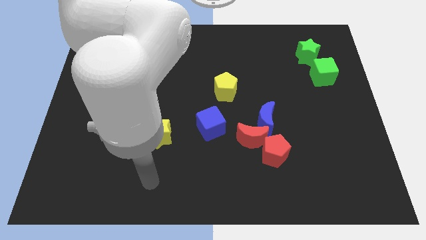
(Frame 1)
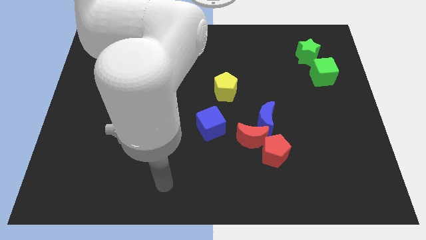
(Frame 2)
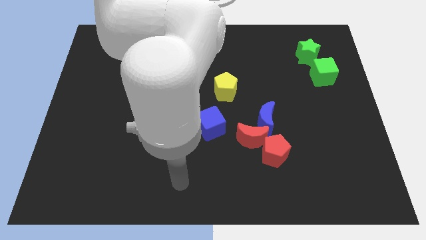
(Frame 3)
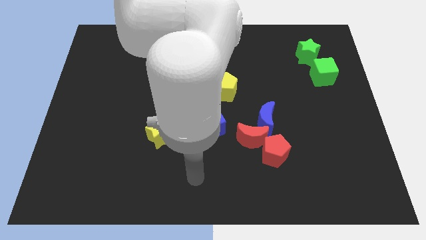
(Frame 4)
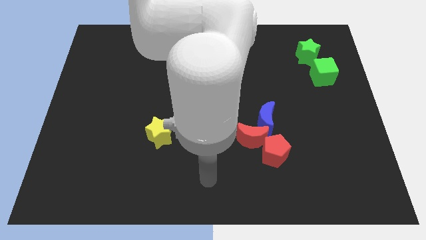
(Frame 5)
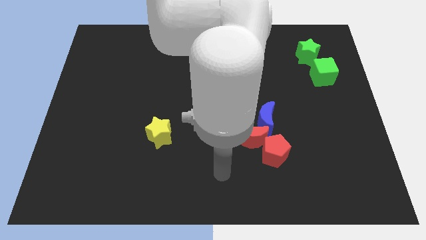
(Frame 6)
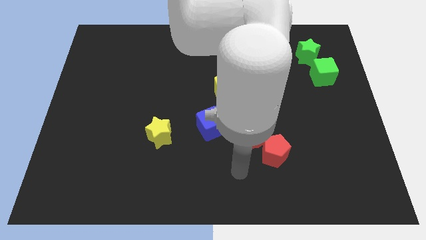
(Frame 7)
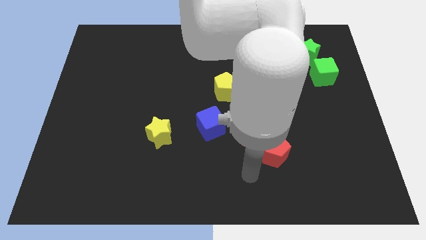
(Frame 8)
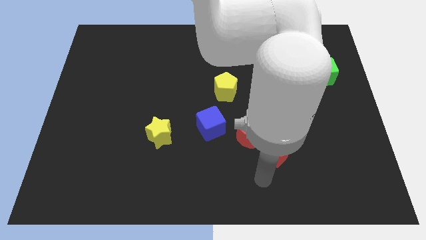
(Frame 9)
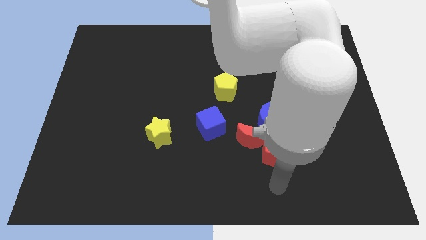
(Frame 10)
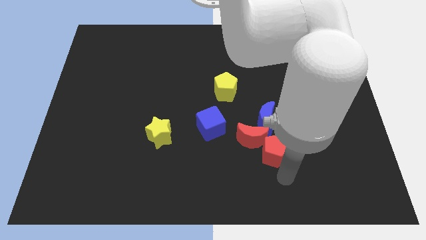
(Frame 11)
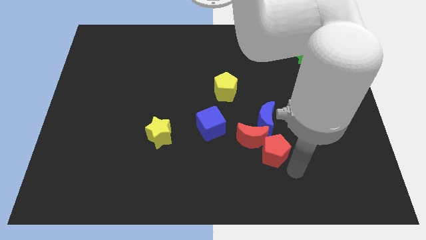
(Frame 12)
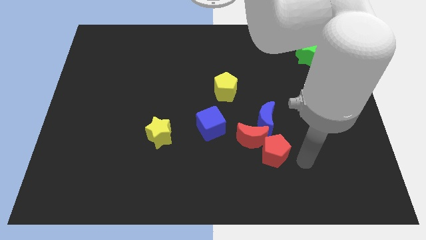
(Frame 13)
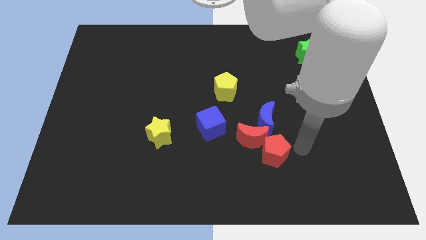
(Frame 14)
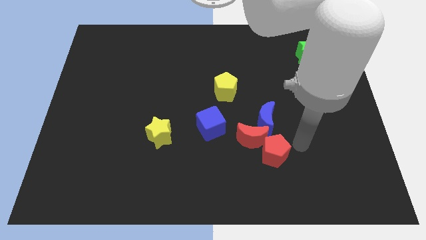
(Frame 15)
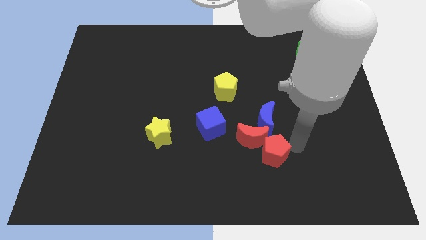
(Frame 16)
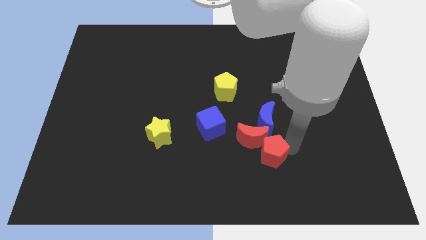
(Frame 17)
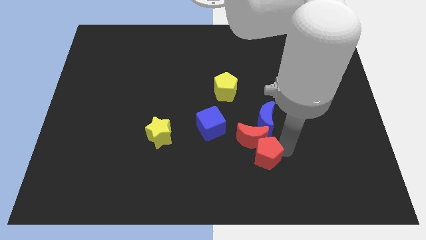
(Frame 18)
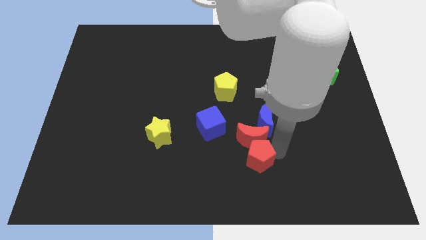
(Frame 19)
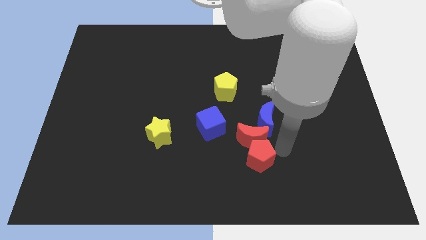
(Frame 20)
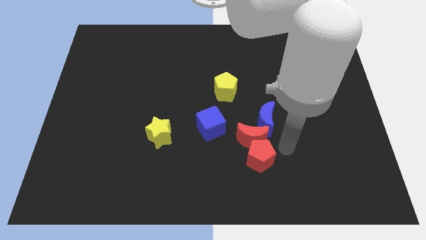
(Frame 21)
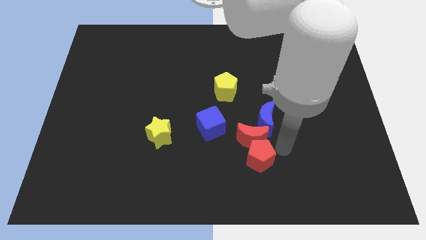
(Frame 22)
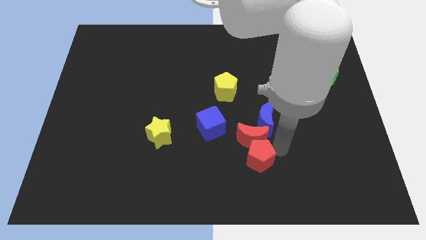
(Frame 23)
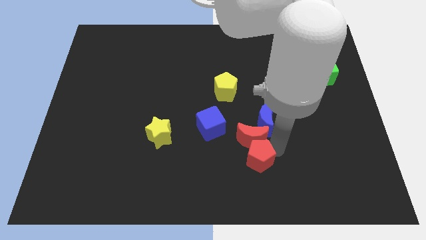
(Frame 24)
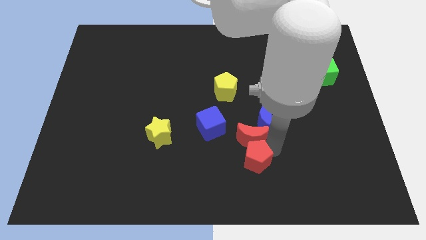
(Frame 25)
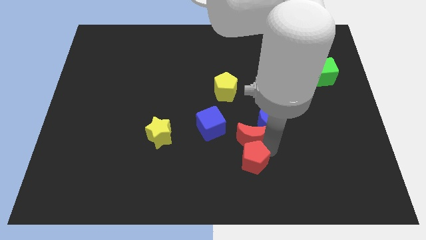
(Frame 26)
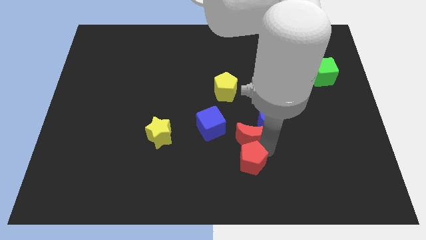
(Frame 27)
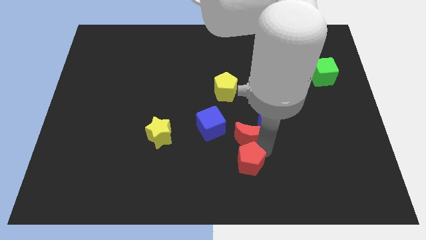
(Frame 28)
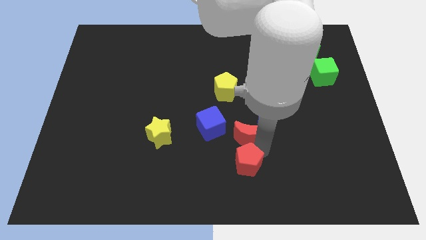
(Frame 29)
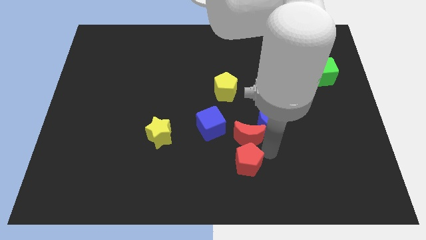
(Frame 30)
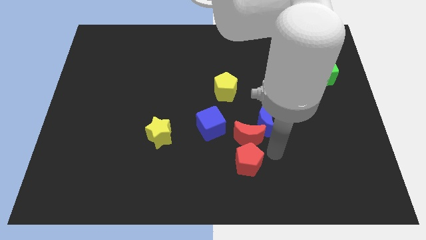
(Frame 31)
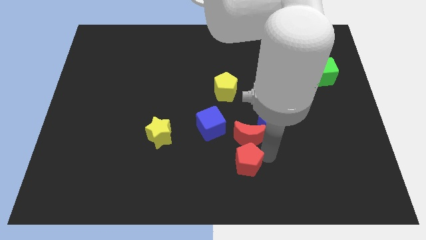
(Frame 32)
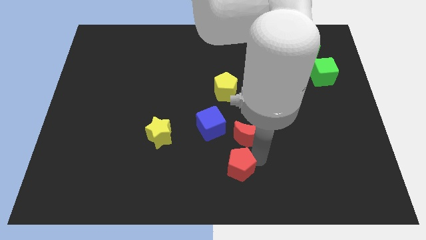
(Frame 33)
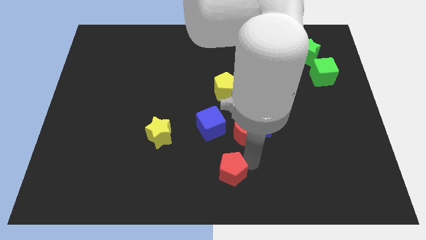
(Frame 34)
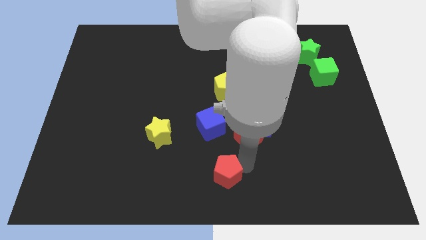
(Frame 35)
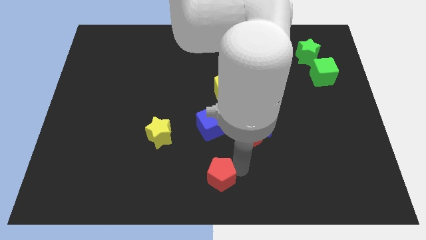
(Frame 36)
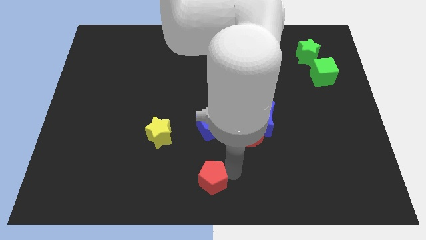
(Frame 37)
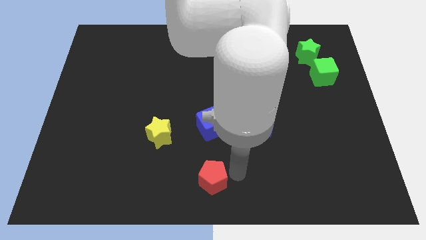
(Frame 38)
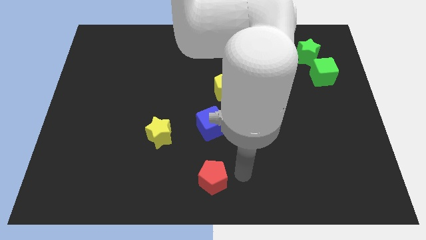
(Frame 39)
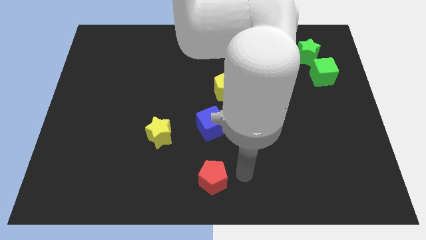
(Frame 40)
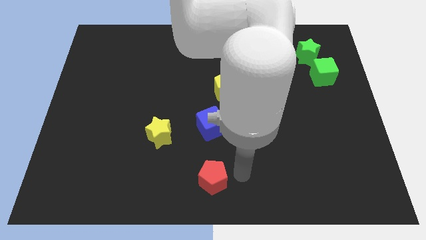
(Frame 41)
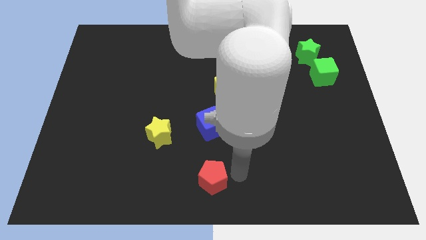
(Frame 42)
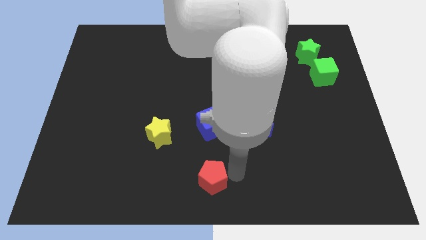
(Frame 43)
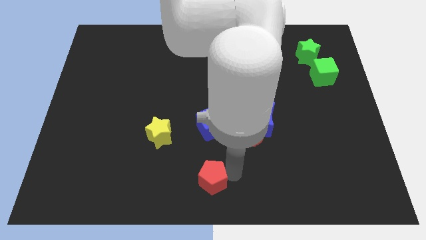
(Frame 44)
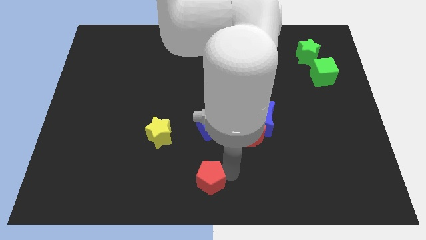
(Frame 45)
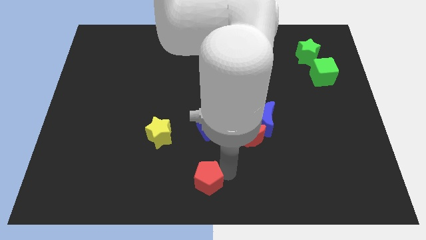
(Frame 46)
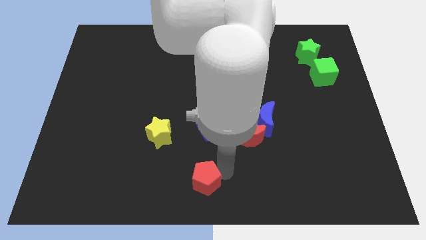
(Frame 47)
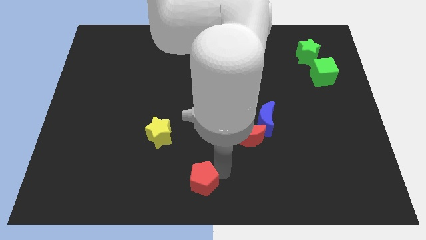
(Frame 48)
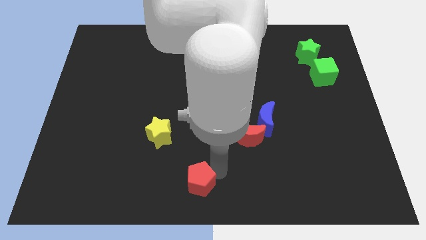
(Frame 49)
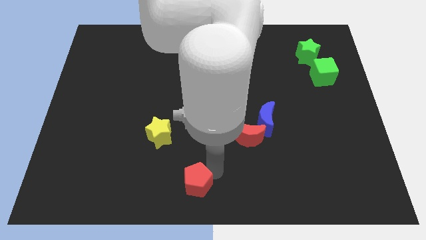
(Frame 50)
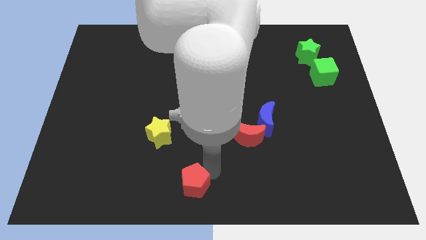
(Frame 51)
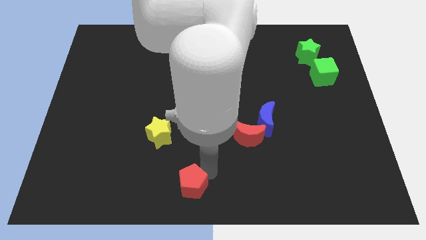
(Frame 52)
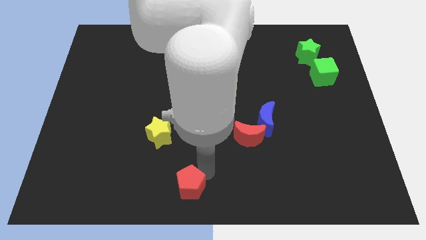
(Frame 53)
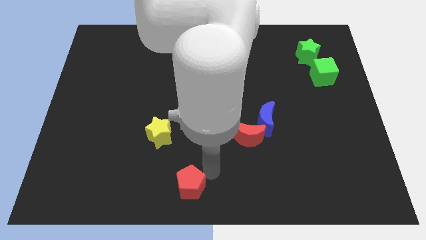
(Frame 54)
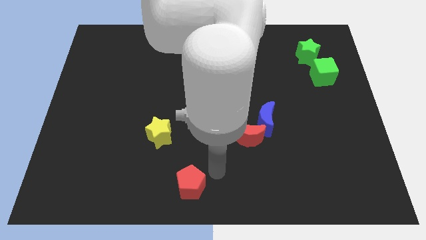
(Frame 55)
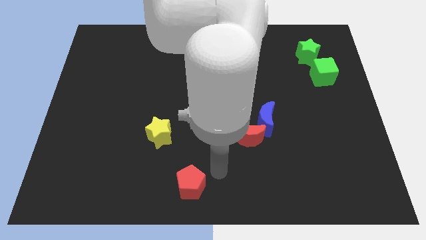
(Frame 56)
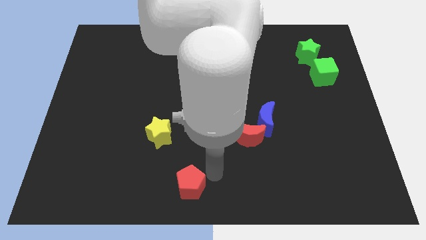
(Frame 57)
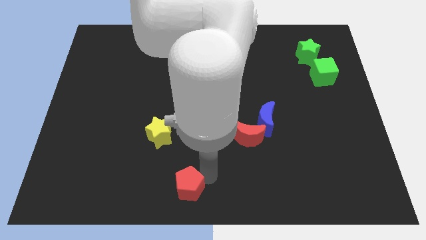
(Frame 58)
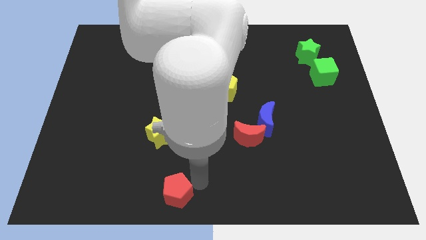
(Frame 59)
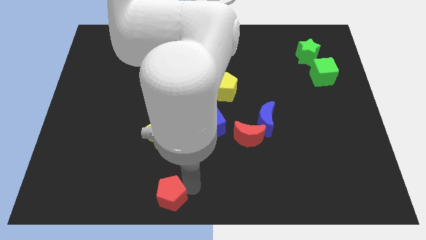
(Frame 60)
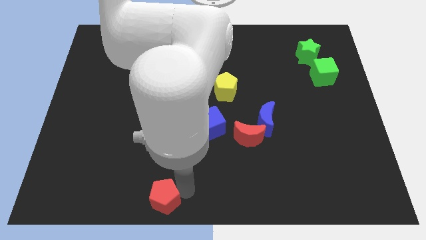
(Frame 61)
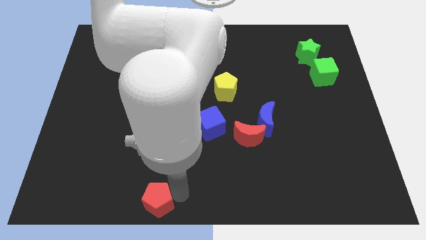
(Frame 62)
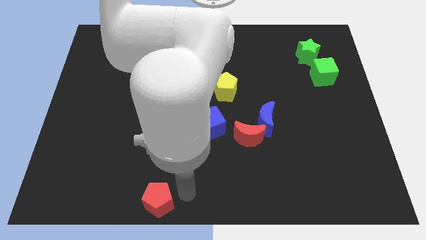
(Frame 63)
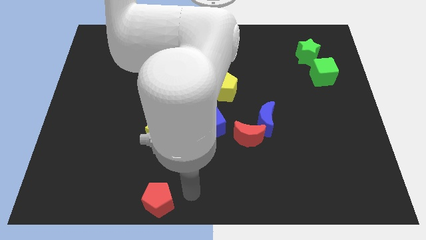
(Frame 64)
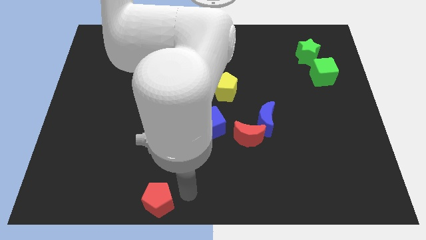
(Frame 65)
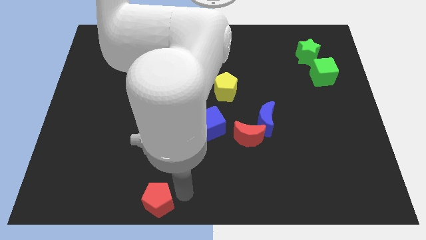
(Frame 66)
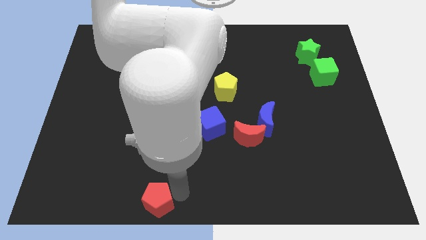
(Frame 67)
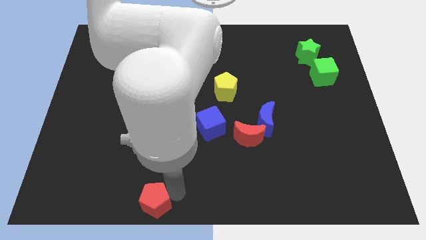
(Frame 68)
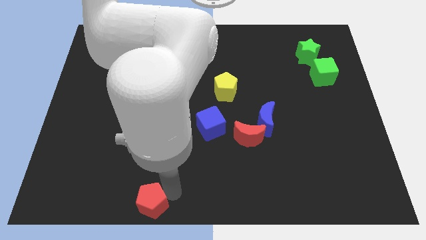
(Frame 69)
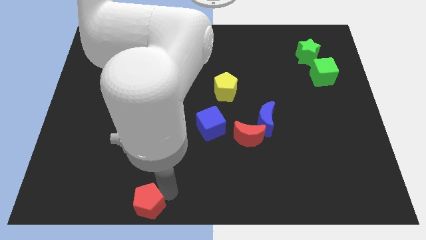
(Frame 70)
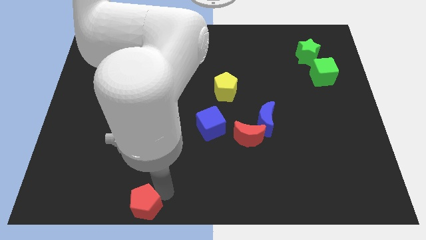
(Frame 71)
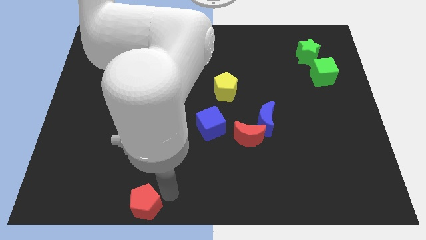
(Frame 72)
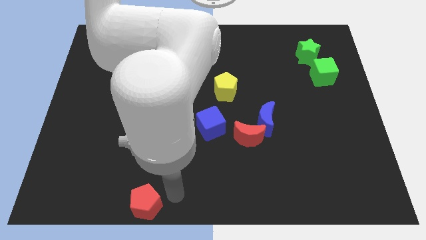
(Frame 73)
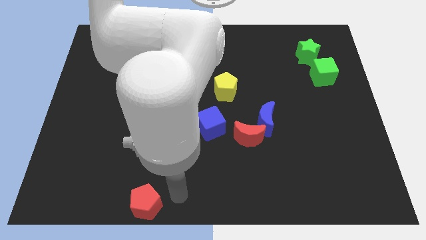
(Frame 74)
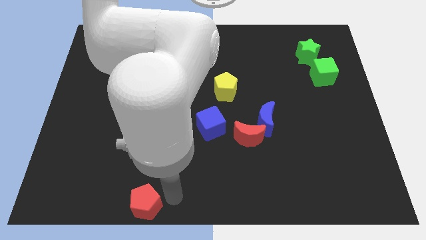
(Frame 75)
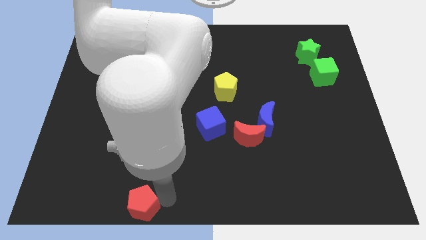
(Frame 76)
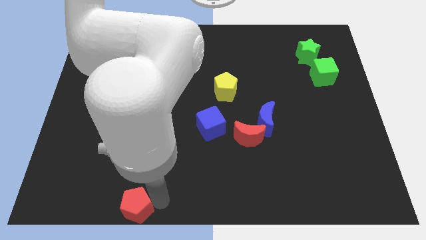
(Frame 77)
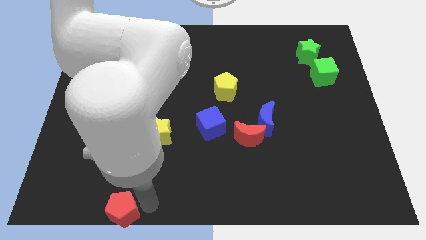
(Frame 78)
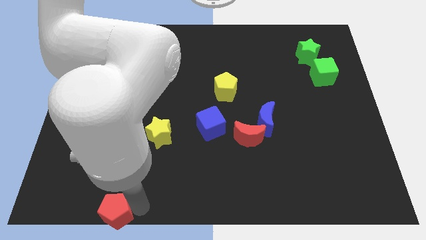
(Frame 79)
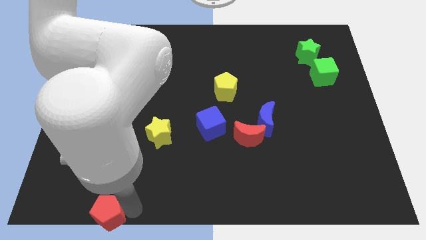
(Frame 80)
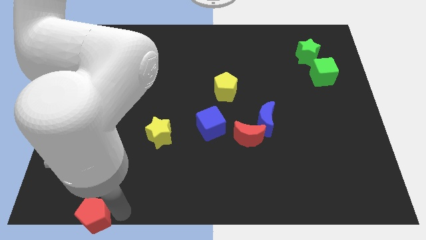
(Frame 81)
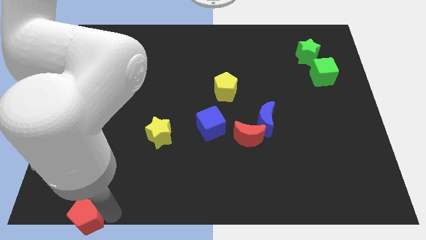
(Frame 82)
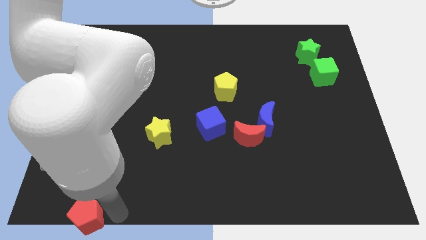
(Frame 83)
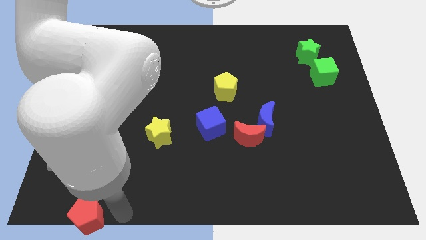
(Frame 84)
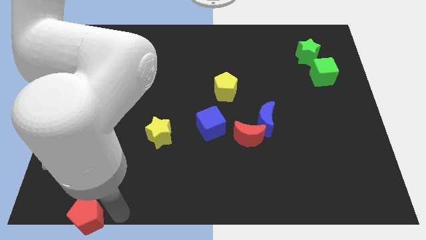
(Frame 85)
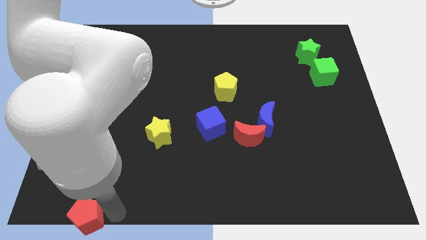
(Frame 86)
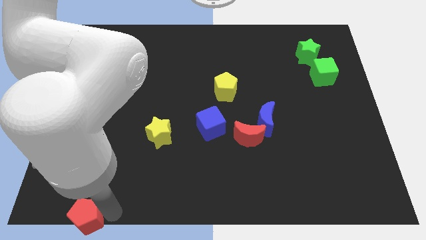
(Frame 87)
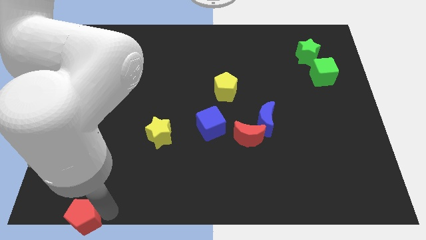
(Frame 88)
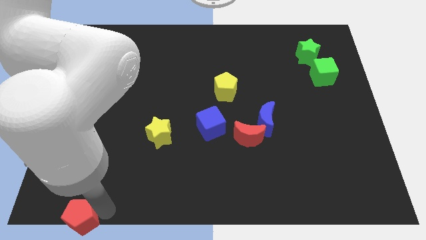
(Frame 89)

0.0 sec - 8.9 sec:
move the red pentagon to the lower left corner
